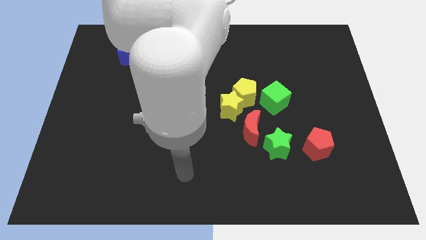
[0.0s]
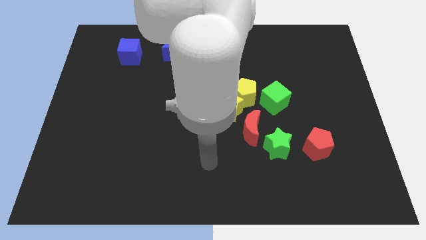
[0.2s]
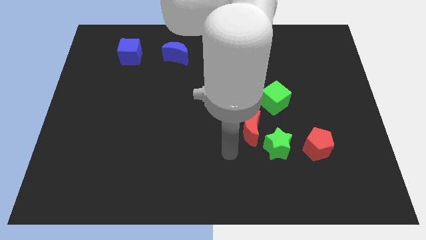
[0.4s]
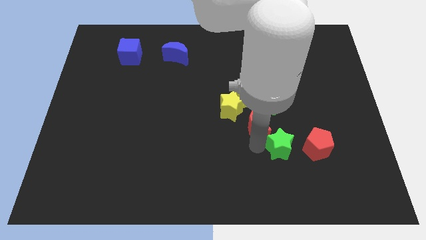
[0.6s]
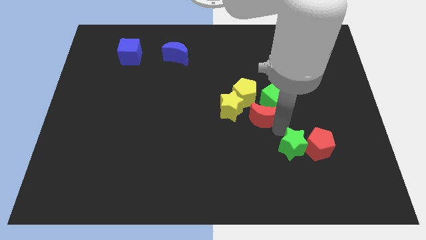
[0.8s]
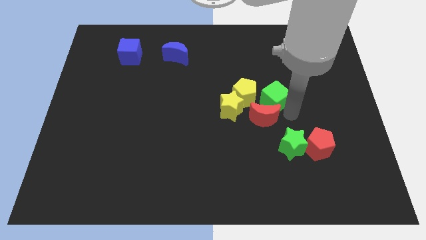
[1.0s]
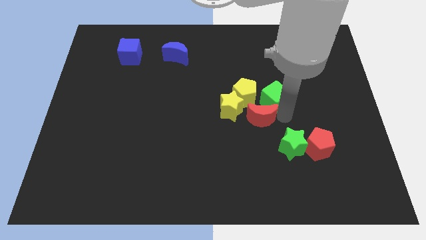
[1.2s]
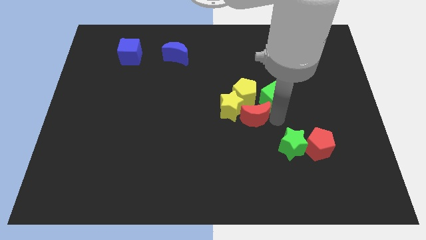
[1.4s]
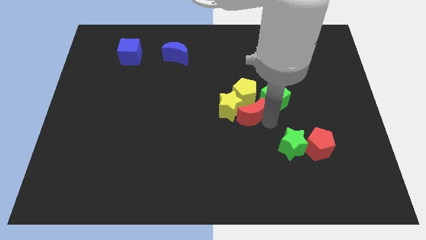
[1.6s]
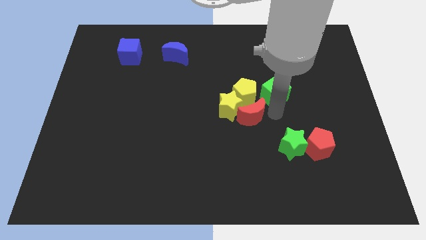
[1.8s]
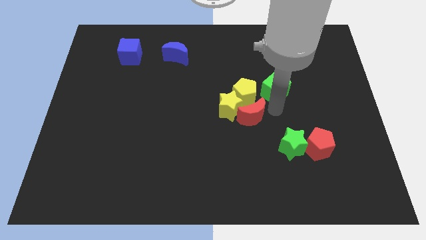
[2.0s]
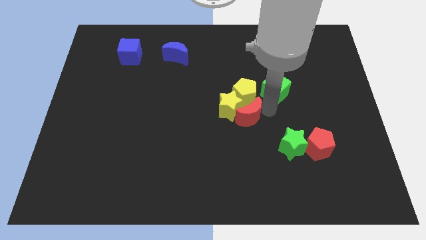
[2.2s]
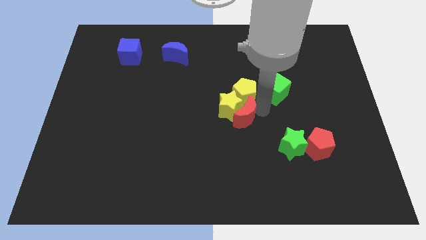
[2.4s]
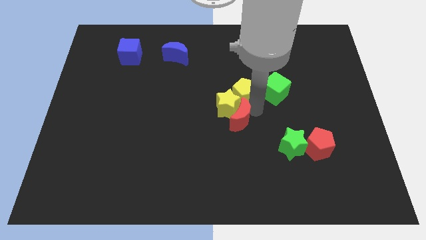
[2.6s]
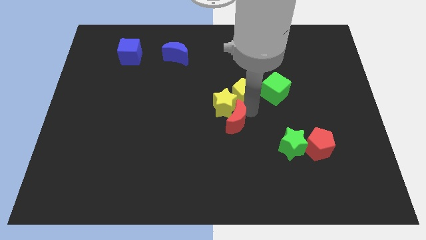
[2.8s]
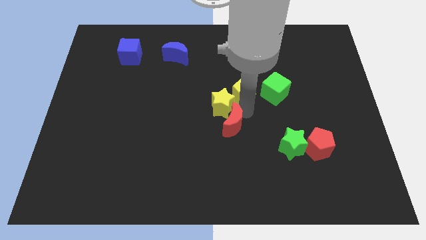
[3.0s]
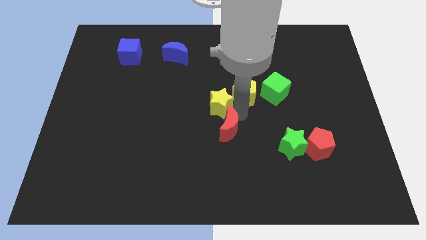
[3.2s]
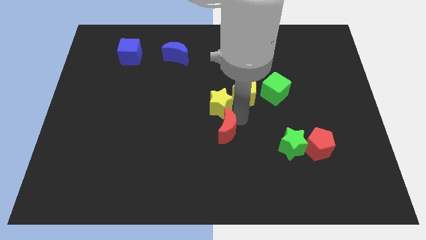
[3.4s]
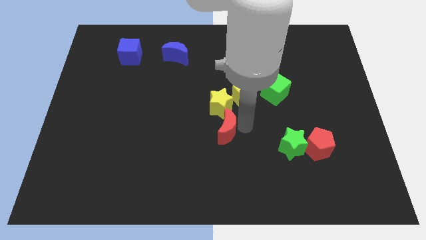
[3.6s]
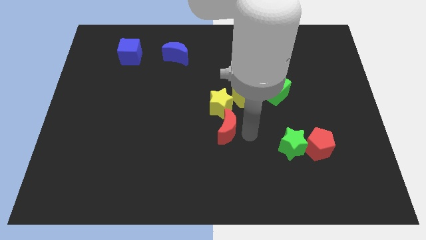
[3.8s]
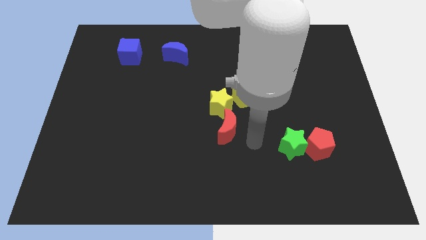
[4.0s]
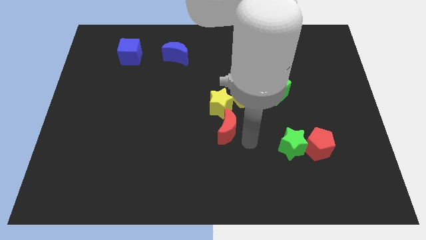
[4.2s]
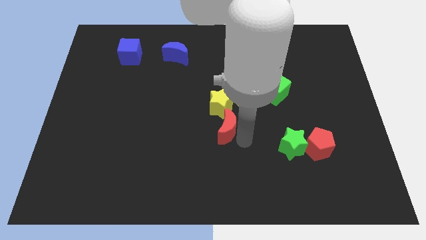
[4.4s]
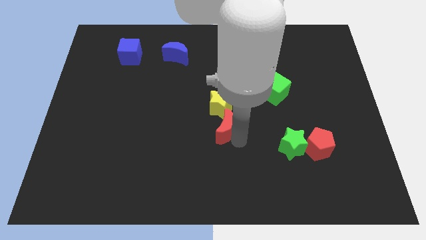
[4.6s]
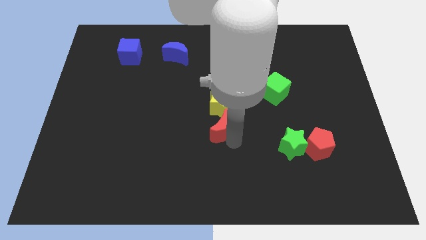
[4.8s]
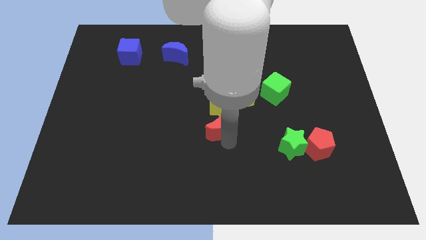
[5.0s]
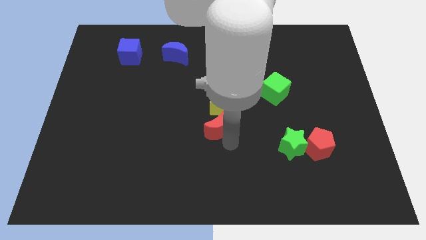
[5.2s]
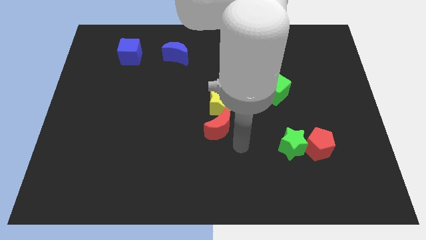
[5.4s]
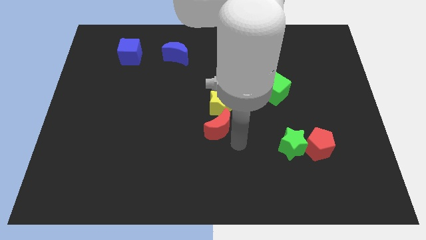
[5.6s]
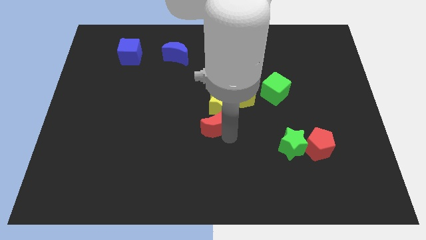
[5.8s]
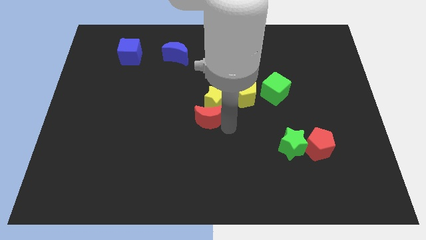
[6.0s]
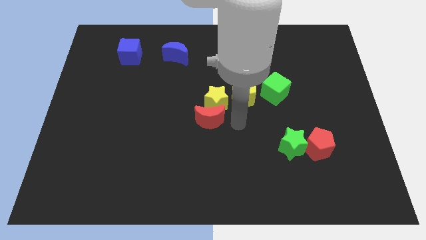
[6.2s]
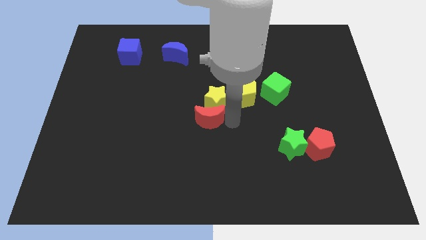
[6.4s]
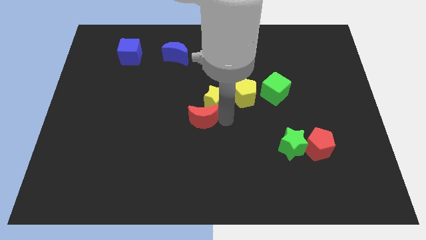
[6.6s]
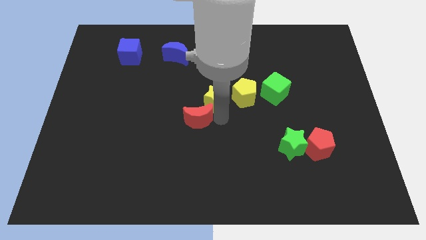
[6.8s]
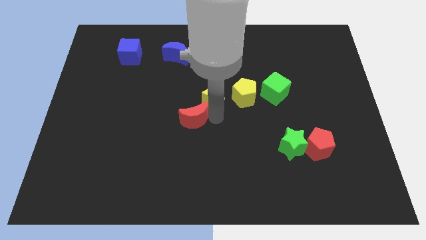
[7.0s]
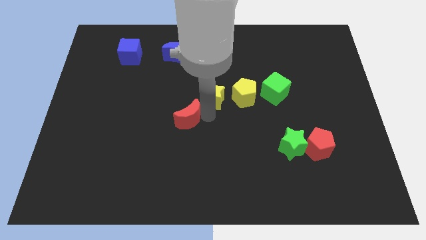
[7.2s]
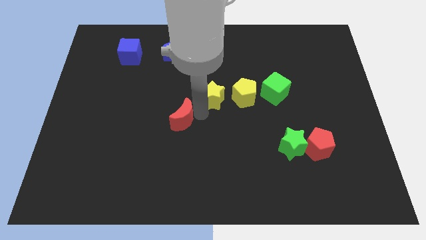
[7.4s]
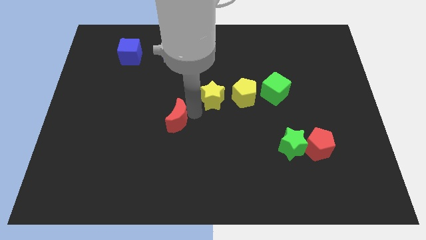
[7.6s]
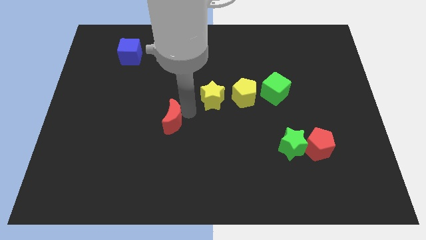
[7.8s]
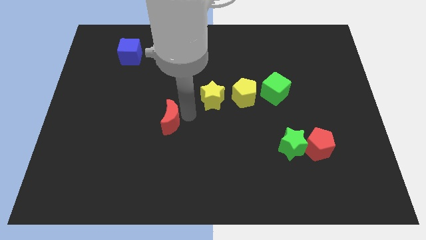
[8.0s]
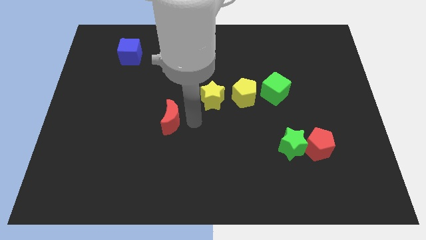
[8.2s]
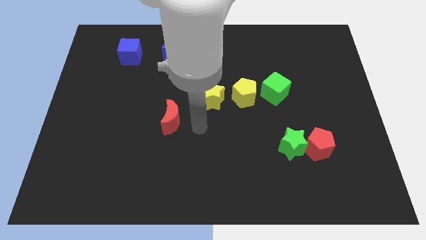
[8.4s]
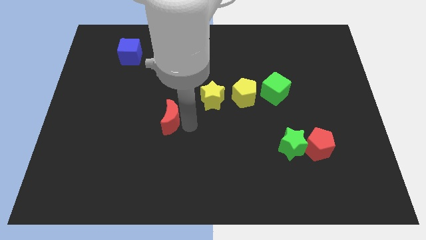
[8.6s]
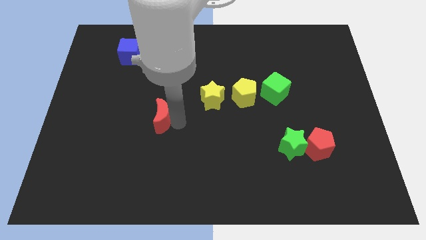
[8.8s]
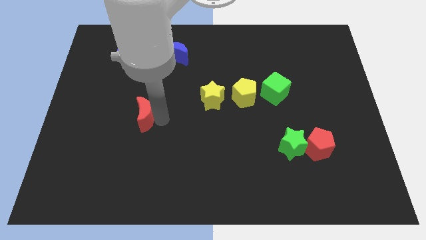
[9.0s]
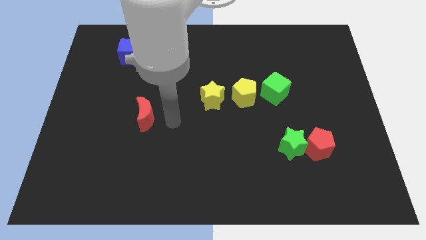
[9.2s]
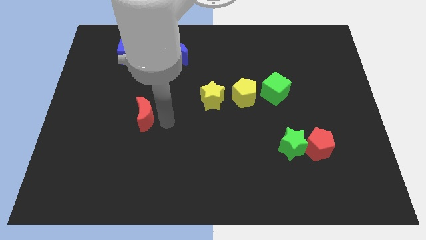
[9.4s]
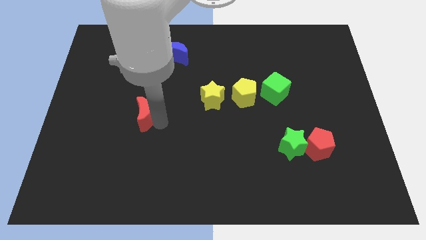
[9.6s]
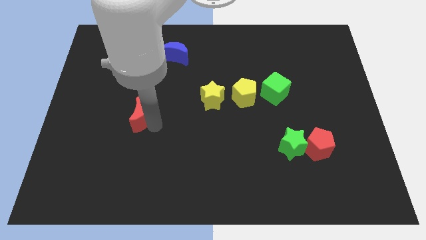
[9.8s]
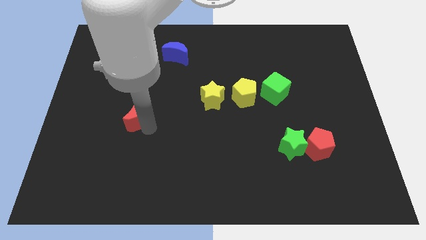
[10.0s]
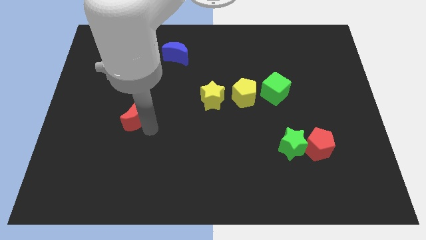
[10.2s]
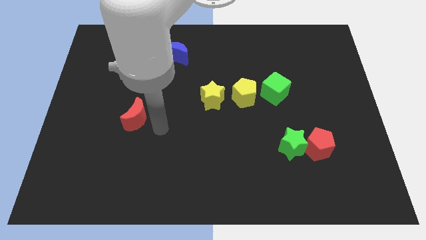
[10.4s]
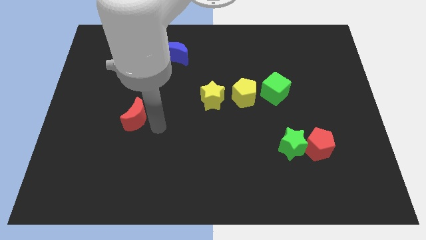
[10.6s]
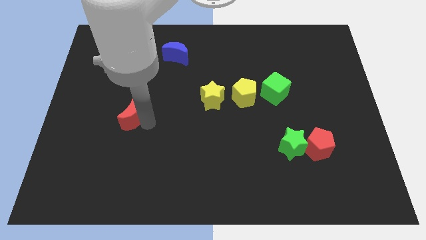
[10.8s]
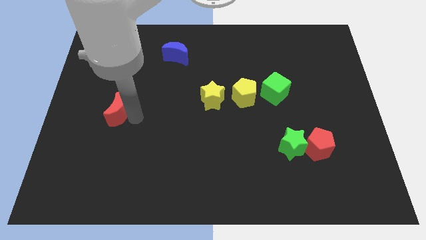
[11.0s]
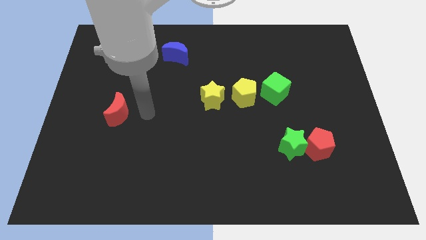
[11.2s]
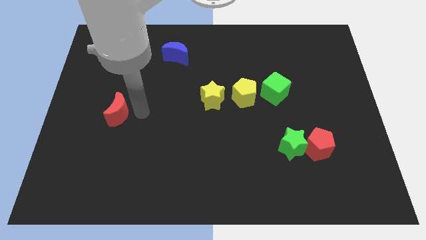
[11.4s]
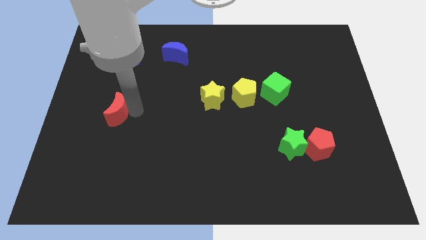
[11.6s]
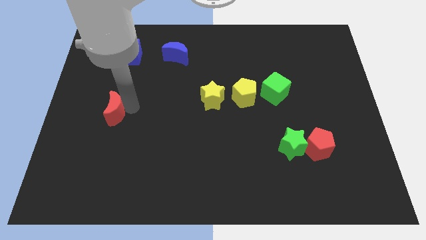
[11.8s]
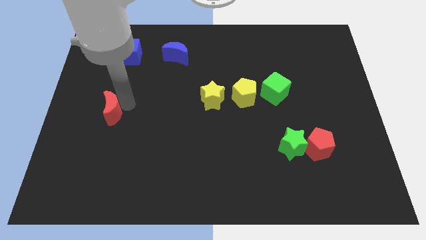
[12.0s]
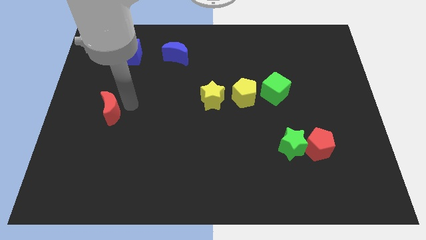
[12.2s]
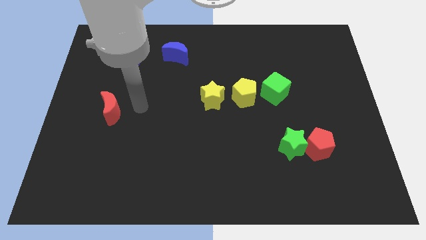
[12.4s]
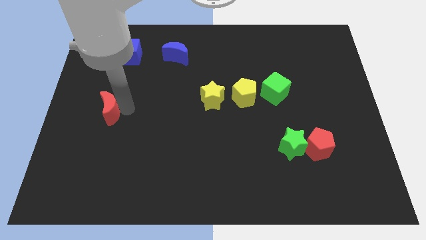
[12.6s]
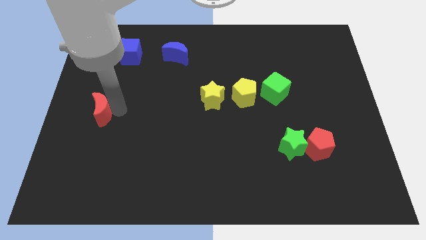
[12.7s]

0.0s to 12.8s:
move the red moon to the center left
